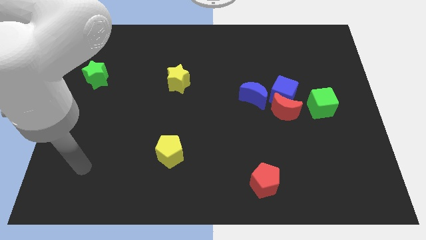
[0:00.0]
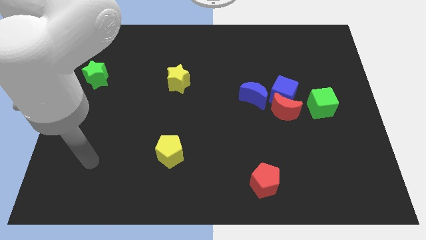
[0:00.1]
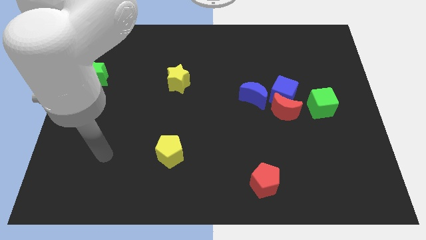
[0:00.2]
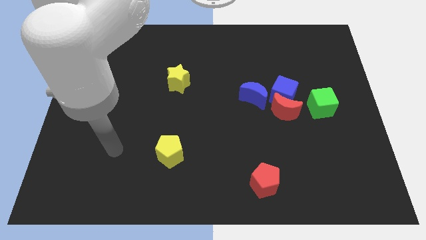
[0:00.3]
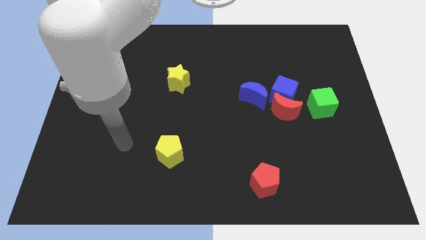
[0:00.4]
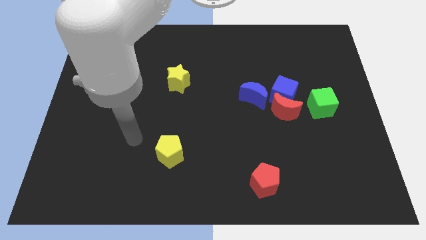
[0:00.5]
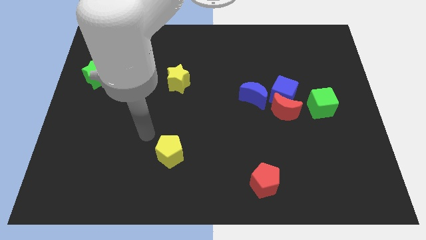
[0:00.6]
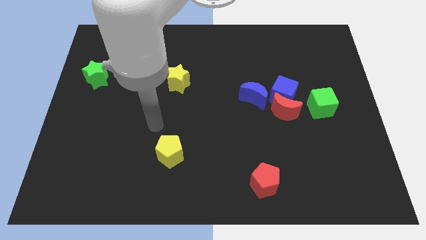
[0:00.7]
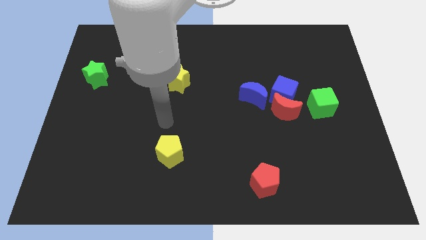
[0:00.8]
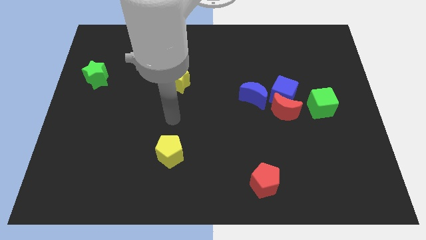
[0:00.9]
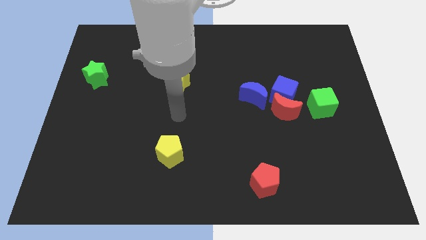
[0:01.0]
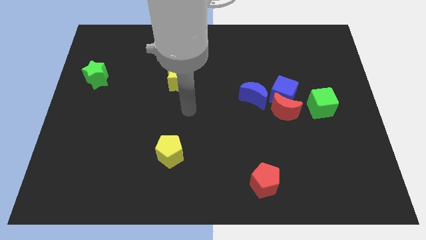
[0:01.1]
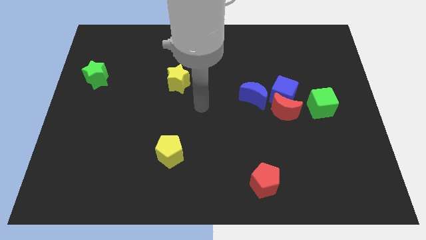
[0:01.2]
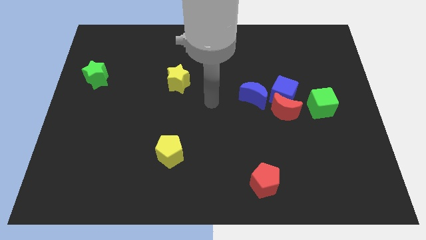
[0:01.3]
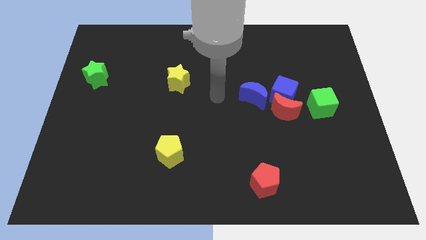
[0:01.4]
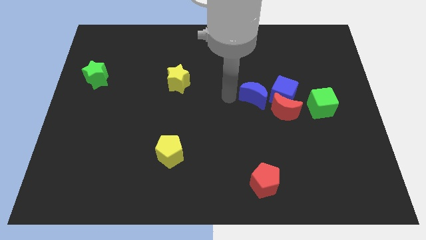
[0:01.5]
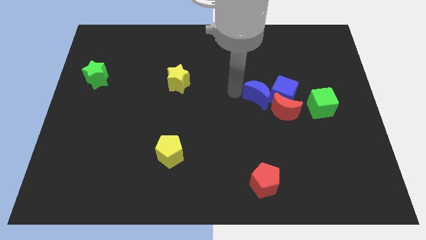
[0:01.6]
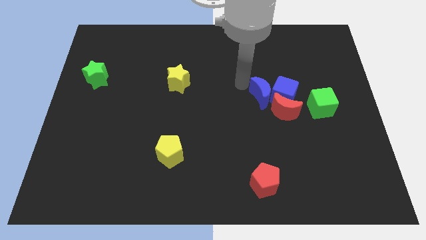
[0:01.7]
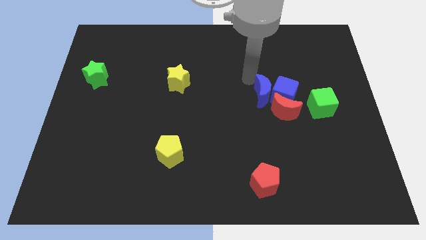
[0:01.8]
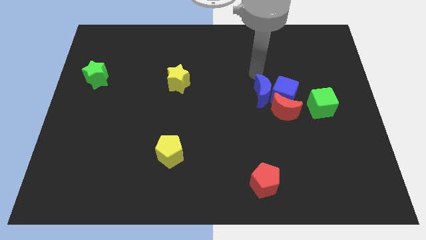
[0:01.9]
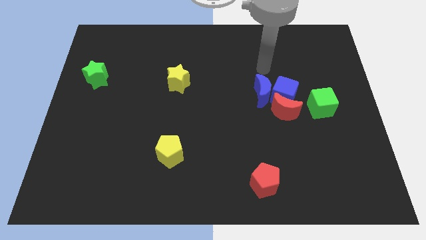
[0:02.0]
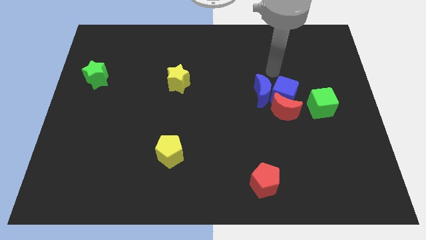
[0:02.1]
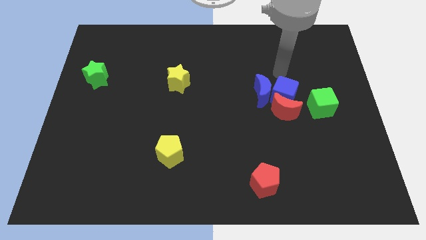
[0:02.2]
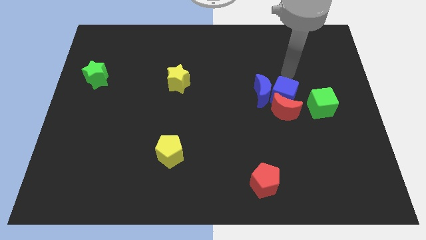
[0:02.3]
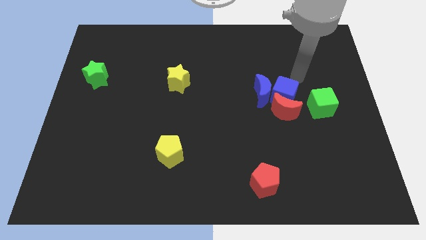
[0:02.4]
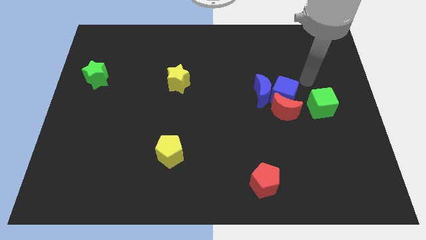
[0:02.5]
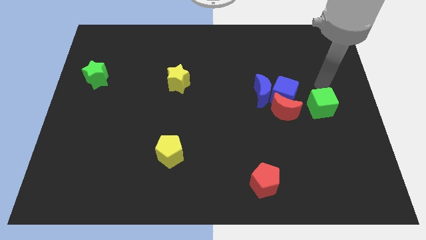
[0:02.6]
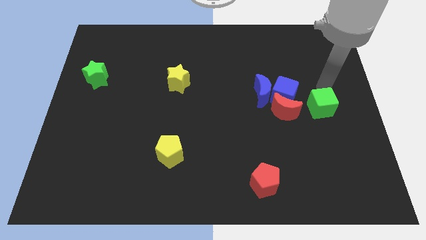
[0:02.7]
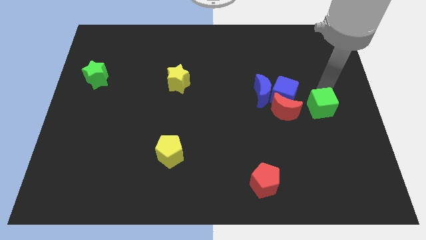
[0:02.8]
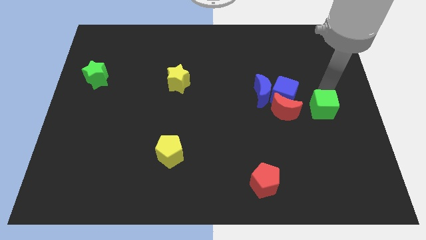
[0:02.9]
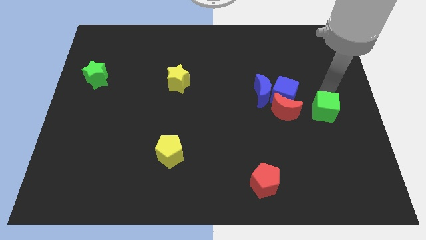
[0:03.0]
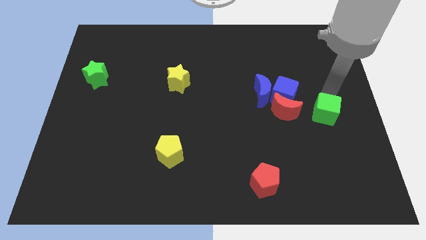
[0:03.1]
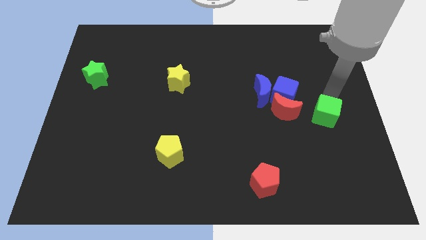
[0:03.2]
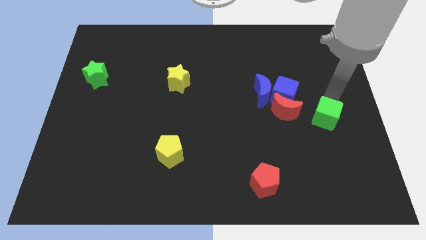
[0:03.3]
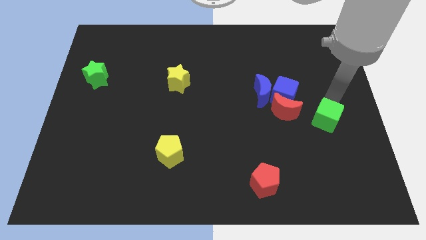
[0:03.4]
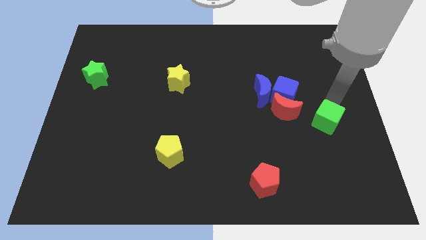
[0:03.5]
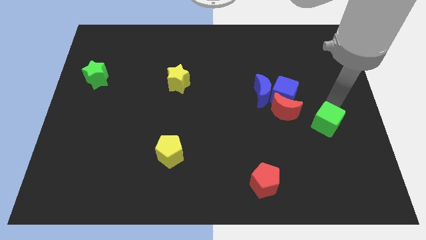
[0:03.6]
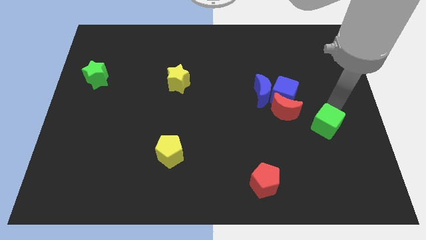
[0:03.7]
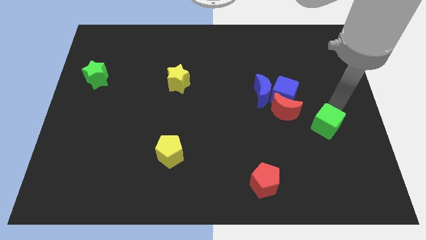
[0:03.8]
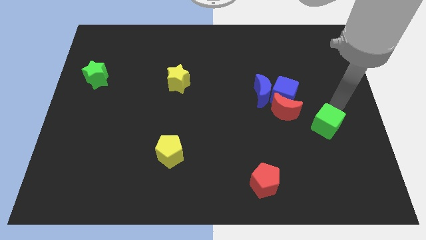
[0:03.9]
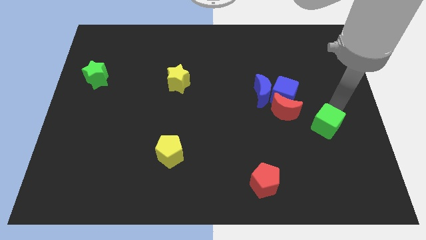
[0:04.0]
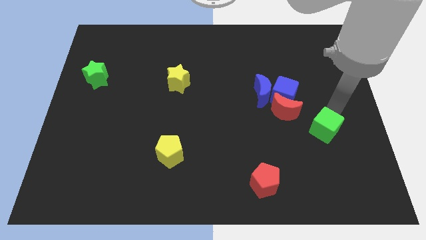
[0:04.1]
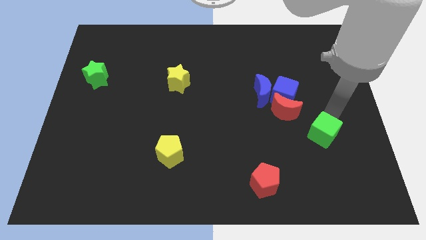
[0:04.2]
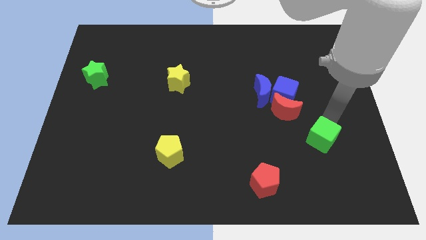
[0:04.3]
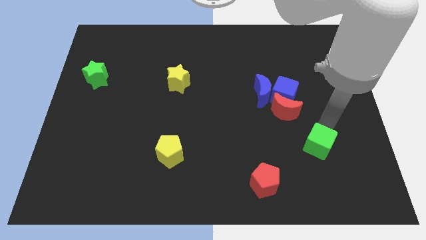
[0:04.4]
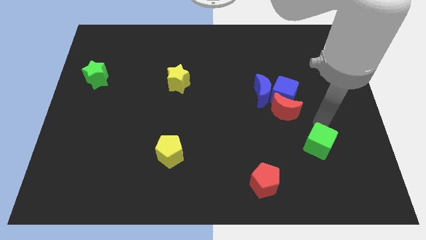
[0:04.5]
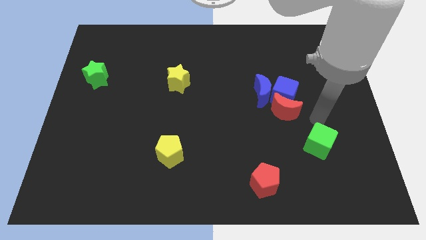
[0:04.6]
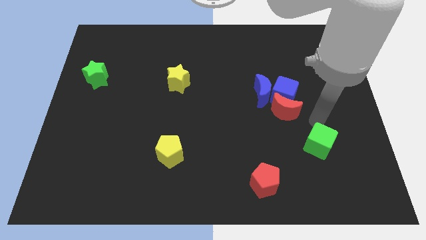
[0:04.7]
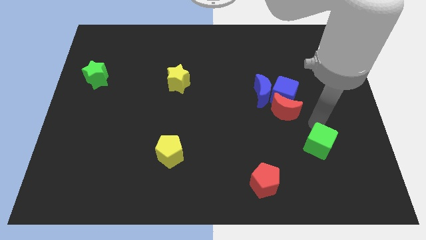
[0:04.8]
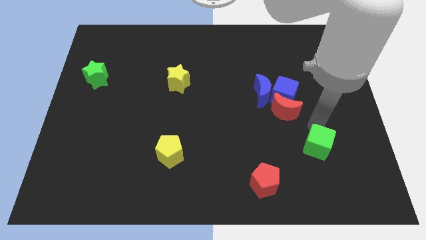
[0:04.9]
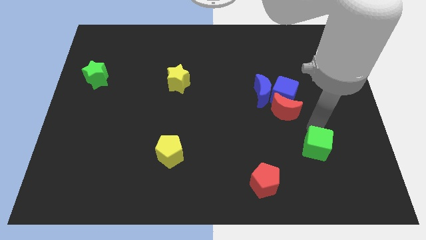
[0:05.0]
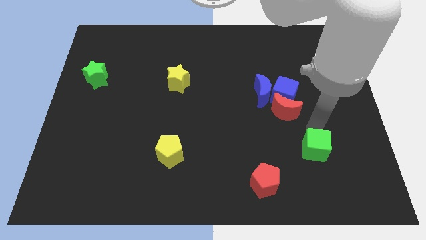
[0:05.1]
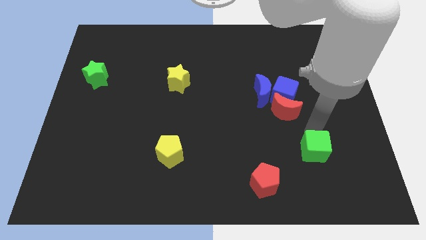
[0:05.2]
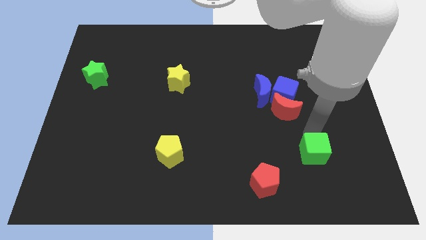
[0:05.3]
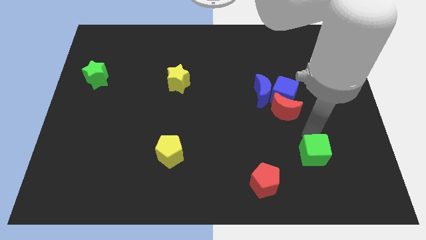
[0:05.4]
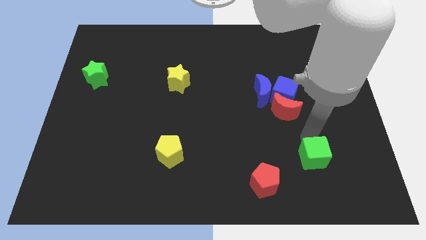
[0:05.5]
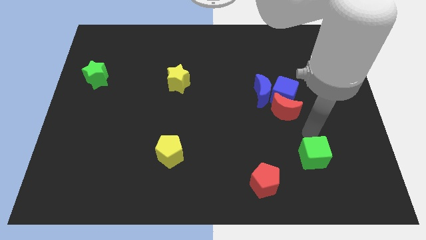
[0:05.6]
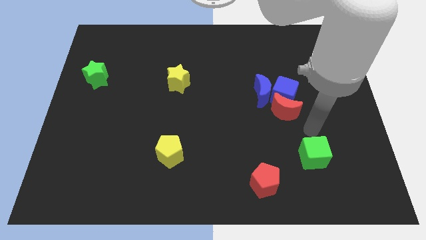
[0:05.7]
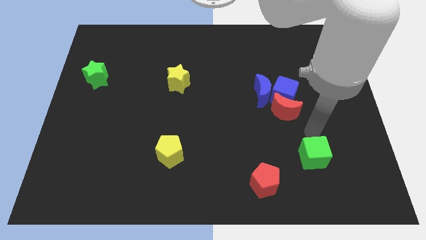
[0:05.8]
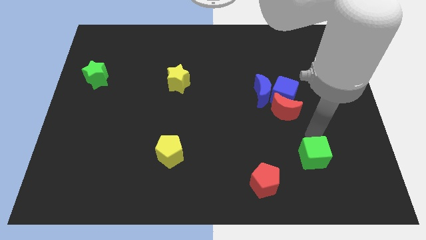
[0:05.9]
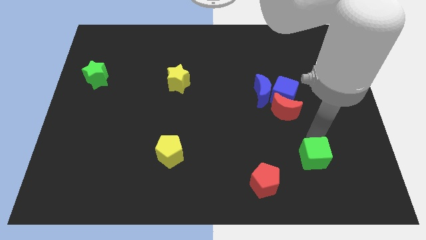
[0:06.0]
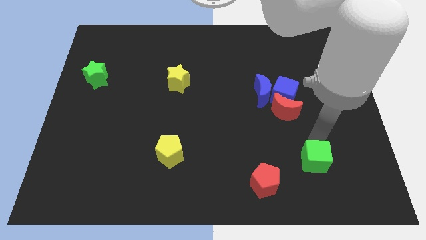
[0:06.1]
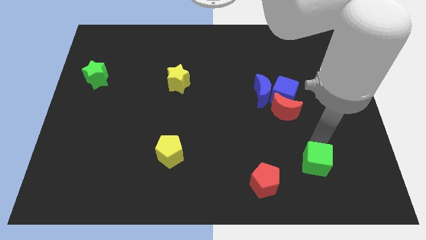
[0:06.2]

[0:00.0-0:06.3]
move the green cube to the right side of the red pentagon
